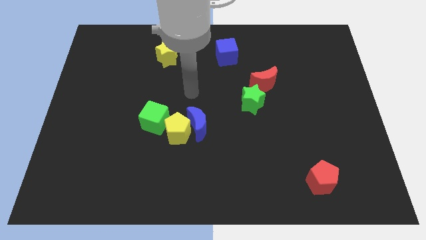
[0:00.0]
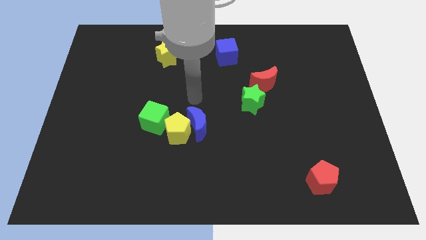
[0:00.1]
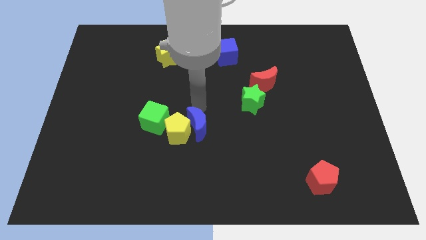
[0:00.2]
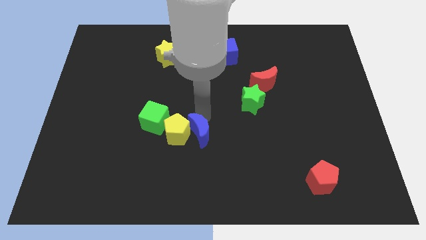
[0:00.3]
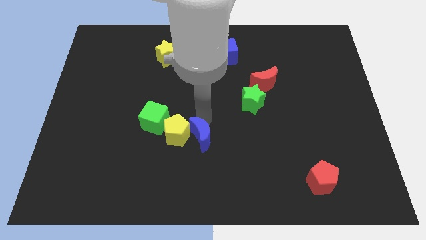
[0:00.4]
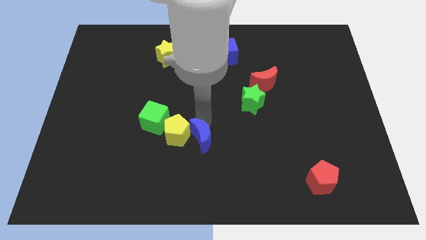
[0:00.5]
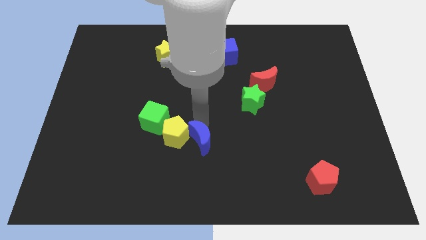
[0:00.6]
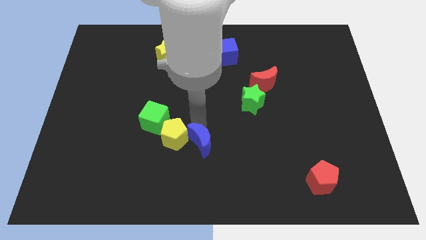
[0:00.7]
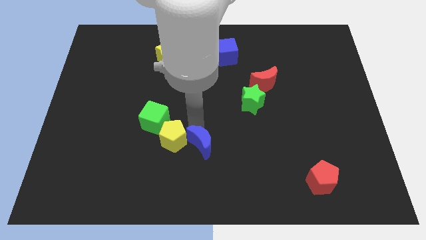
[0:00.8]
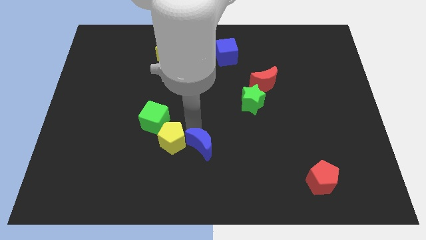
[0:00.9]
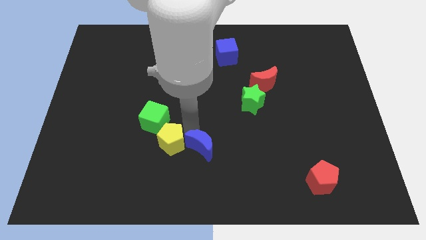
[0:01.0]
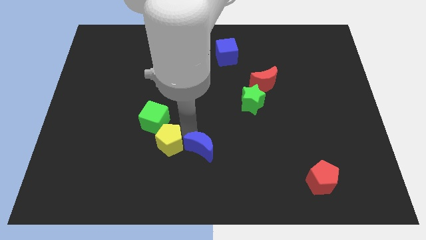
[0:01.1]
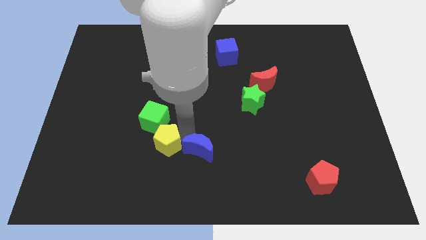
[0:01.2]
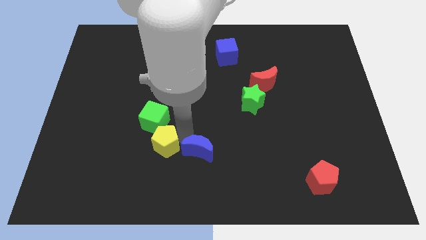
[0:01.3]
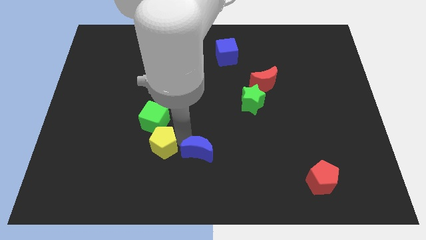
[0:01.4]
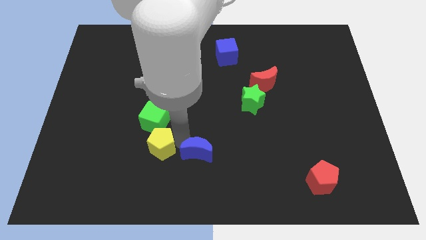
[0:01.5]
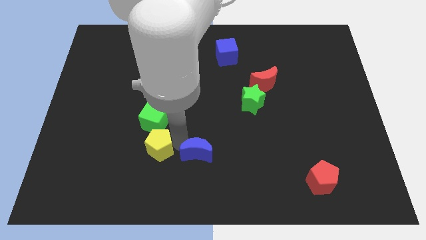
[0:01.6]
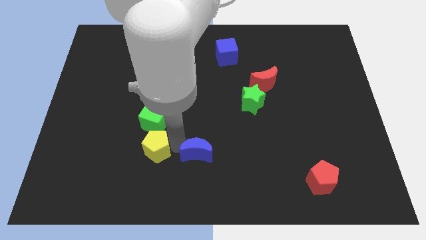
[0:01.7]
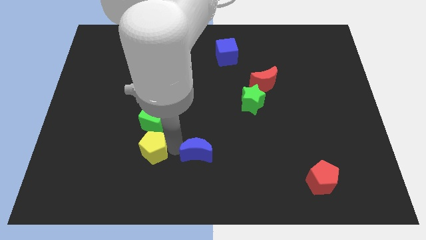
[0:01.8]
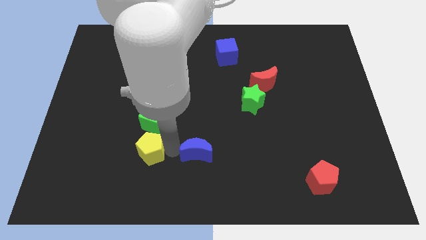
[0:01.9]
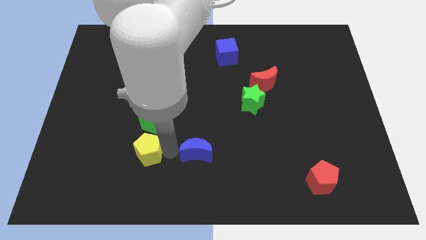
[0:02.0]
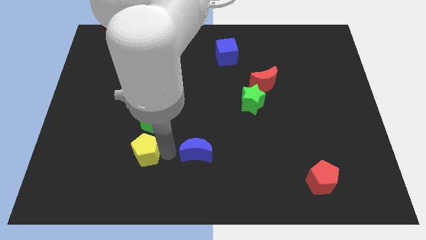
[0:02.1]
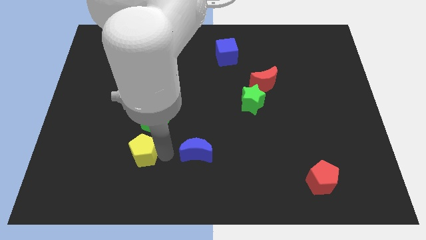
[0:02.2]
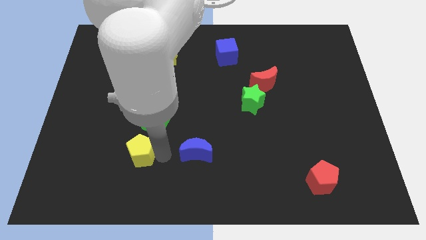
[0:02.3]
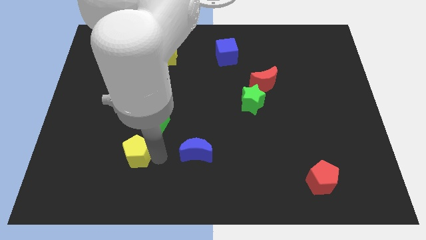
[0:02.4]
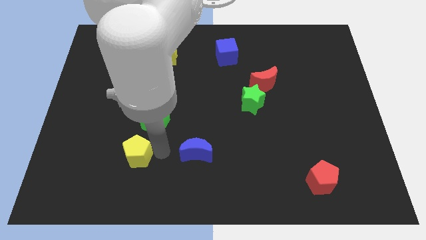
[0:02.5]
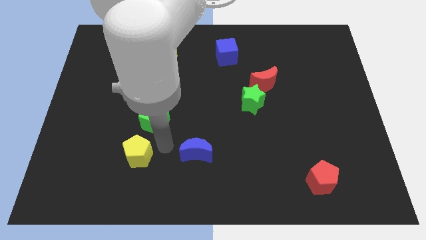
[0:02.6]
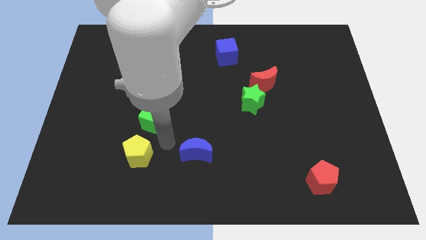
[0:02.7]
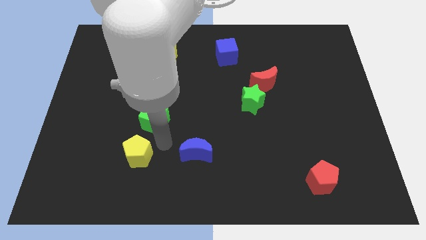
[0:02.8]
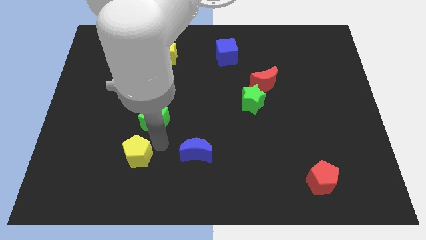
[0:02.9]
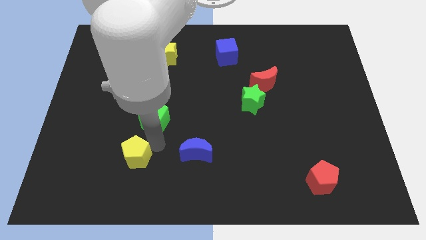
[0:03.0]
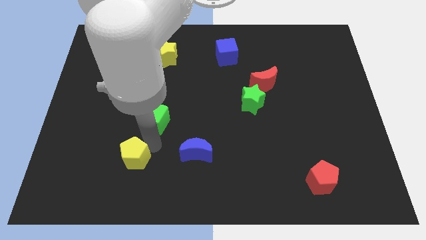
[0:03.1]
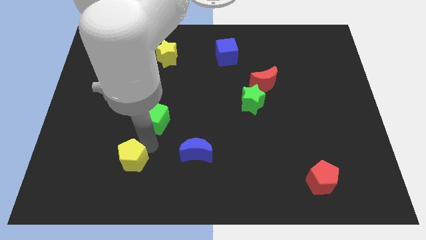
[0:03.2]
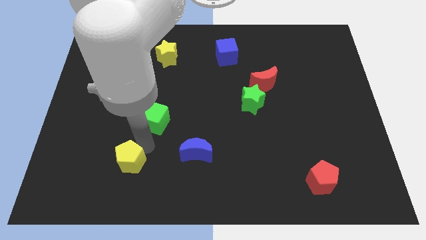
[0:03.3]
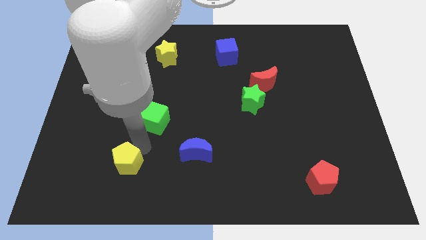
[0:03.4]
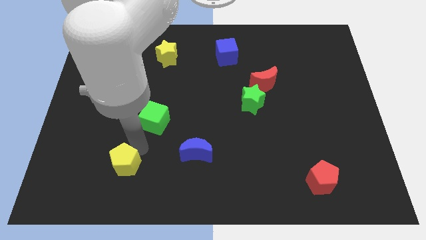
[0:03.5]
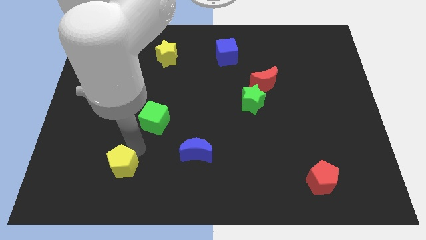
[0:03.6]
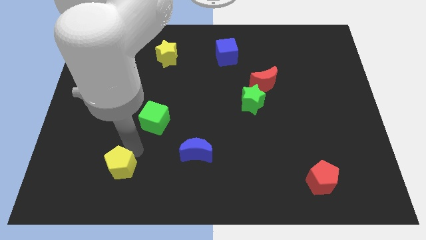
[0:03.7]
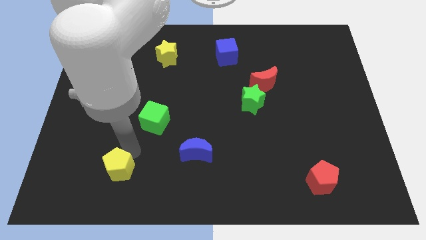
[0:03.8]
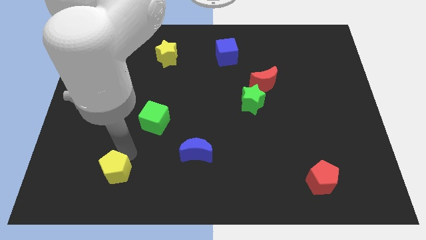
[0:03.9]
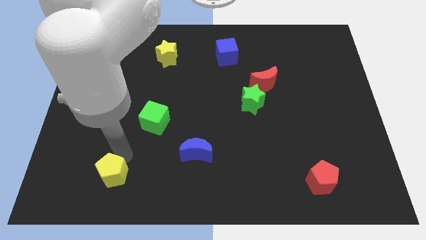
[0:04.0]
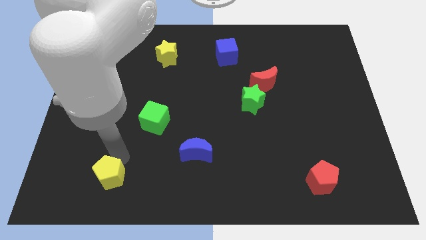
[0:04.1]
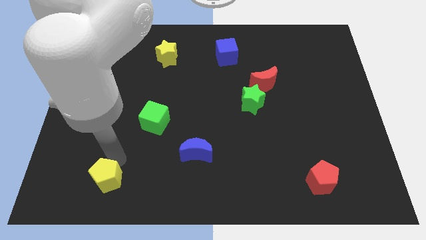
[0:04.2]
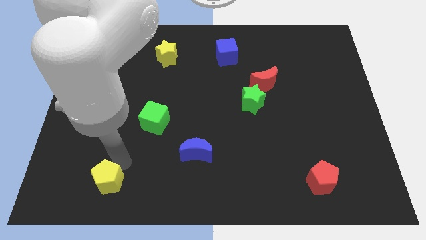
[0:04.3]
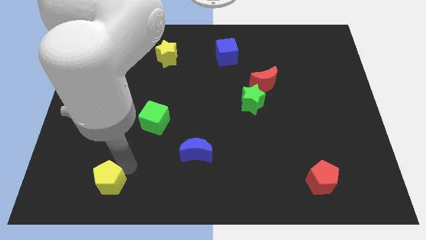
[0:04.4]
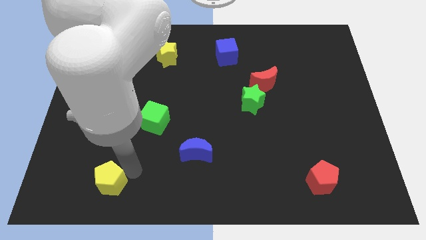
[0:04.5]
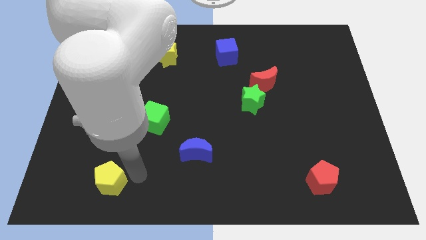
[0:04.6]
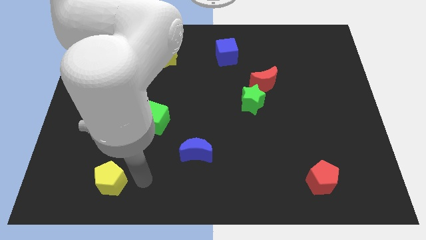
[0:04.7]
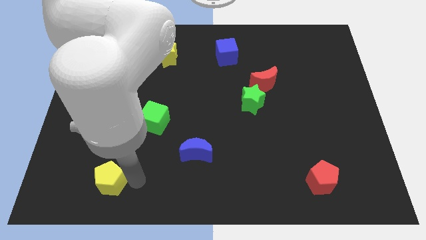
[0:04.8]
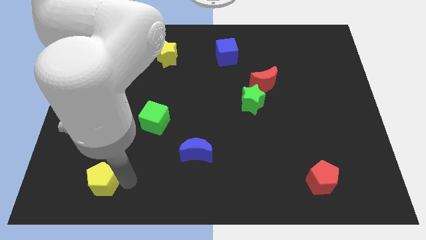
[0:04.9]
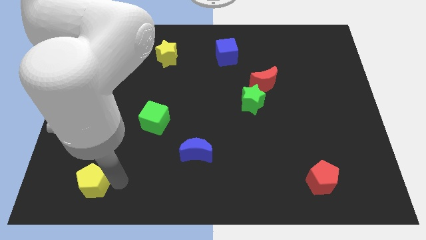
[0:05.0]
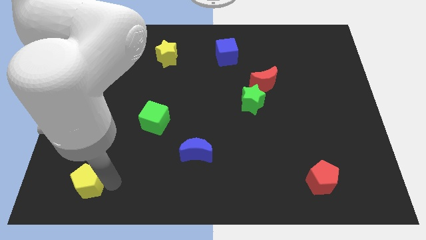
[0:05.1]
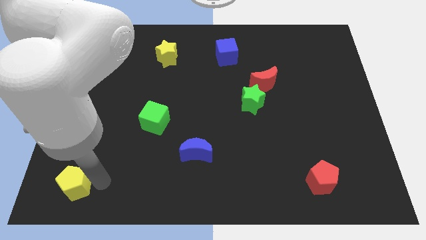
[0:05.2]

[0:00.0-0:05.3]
move the yellow pentagon to the bottom left corner
